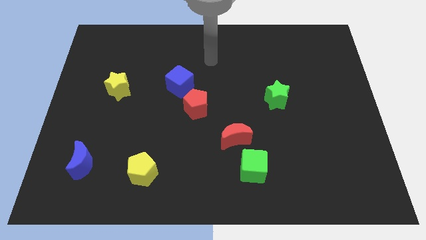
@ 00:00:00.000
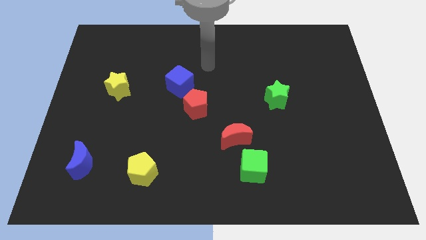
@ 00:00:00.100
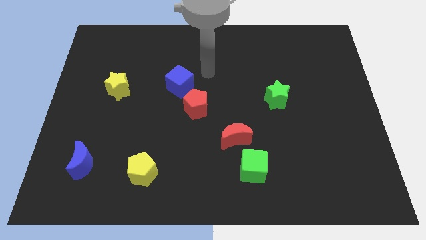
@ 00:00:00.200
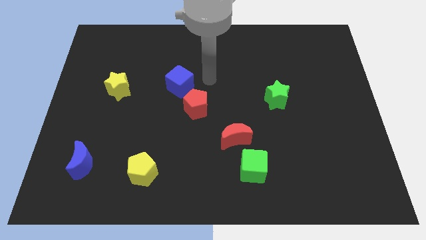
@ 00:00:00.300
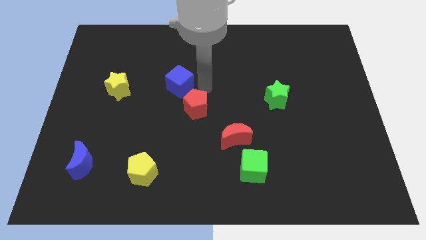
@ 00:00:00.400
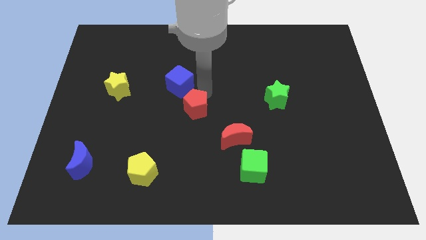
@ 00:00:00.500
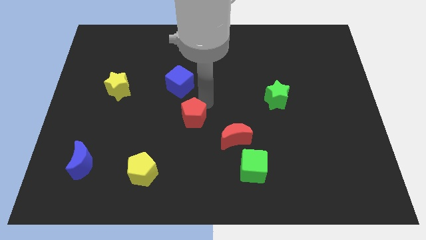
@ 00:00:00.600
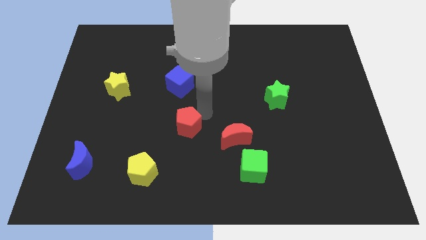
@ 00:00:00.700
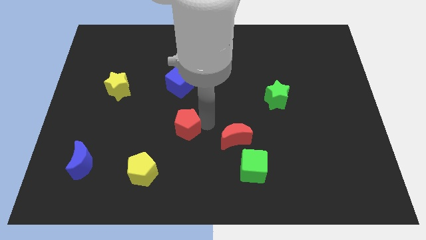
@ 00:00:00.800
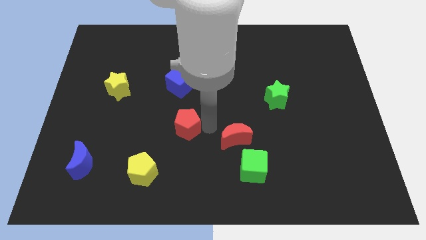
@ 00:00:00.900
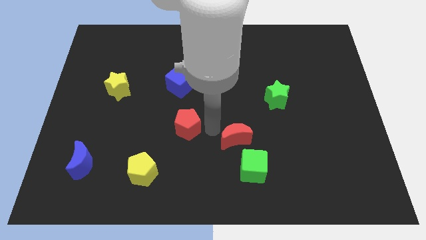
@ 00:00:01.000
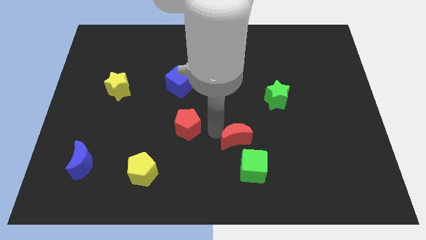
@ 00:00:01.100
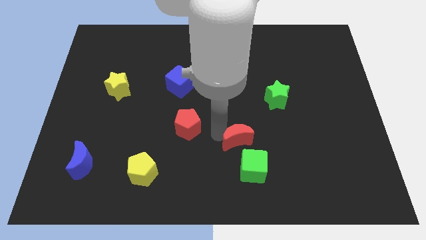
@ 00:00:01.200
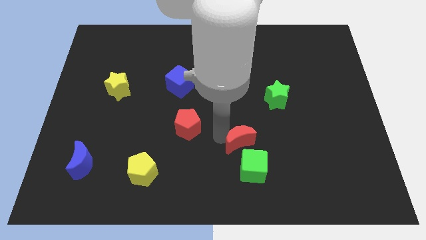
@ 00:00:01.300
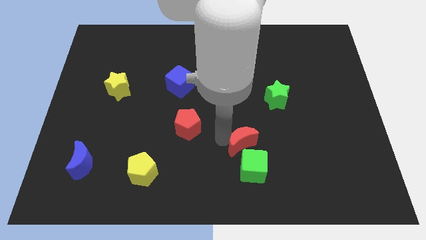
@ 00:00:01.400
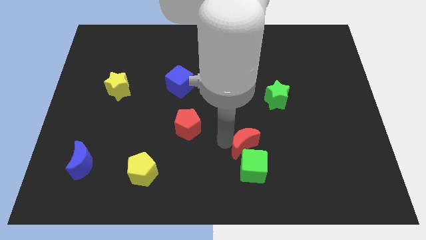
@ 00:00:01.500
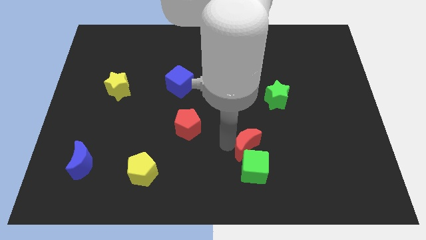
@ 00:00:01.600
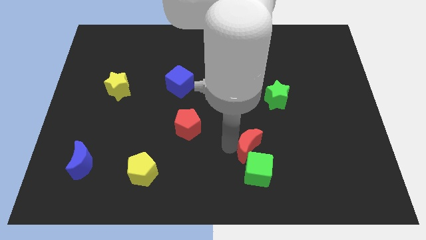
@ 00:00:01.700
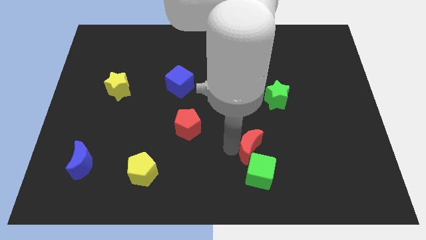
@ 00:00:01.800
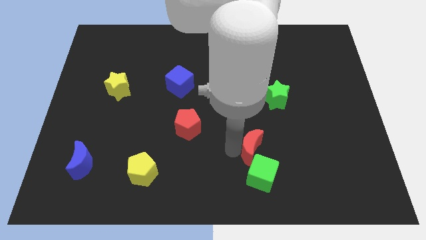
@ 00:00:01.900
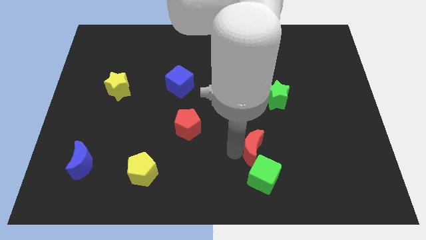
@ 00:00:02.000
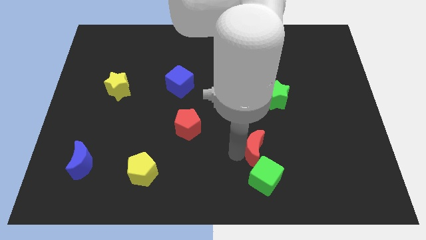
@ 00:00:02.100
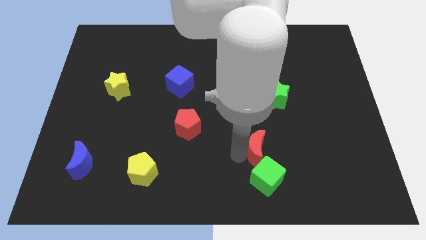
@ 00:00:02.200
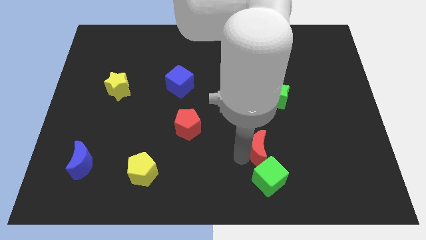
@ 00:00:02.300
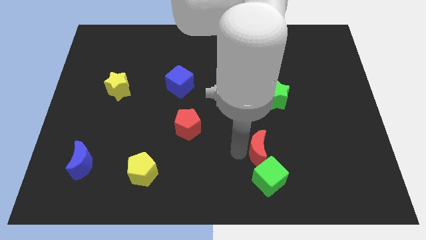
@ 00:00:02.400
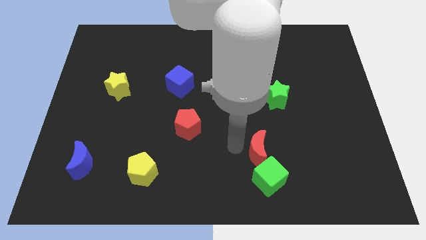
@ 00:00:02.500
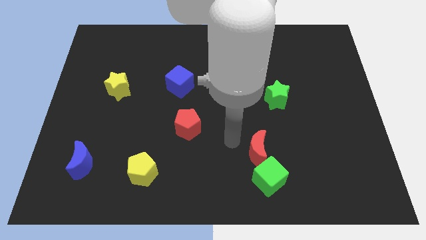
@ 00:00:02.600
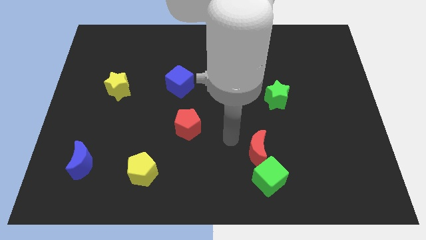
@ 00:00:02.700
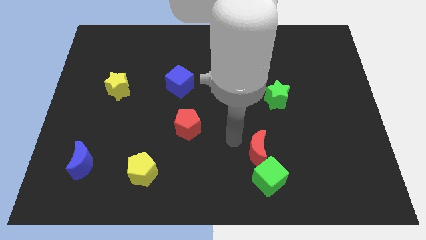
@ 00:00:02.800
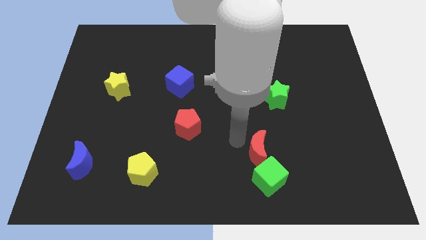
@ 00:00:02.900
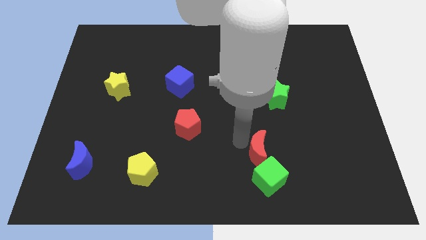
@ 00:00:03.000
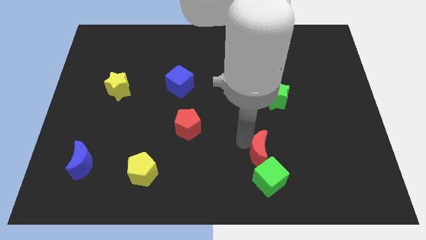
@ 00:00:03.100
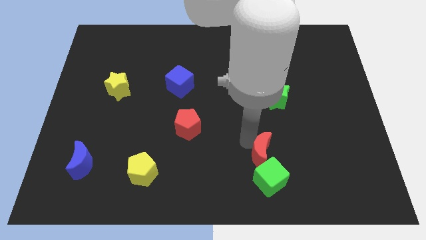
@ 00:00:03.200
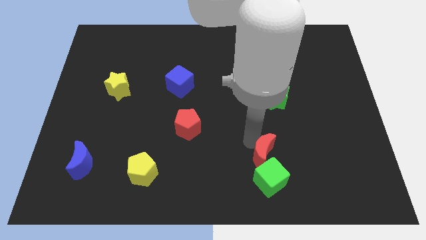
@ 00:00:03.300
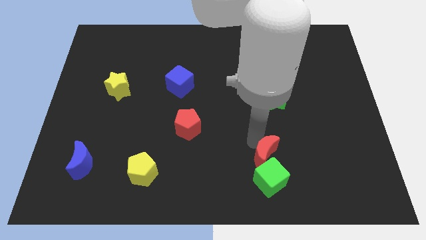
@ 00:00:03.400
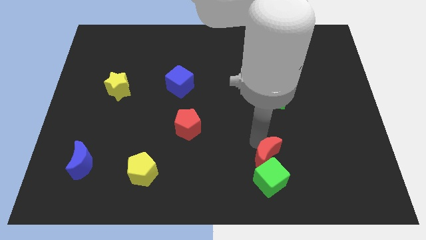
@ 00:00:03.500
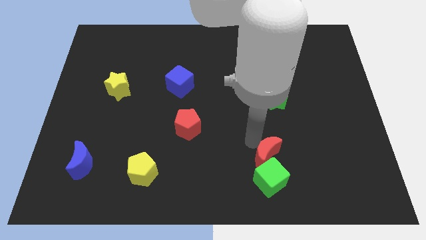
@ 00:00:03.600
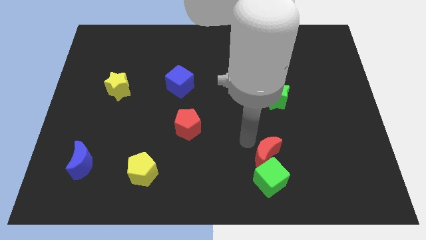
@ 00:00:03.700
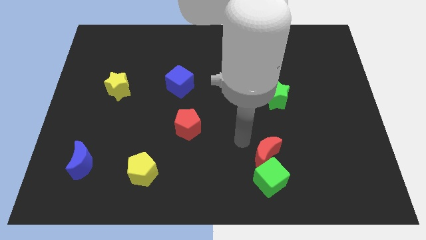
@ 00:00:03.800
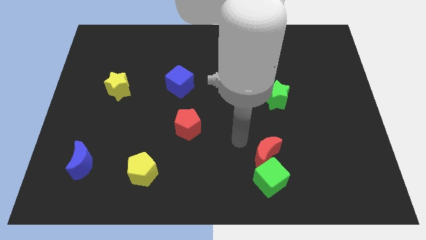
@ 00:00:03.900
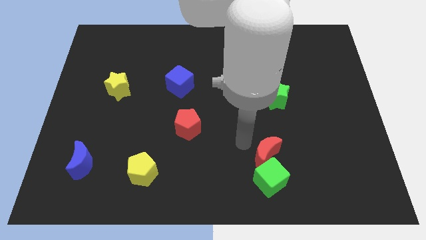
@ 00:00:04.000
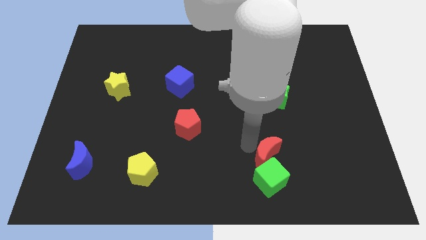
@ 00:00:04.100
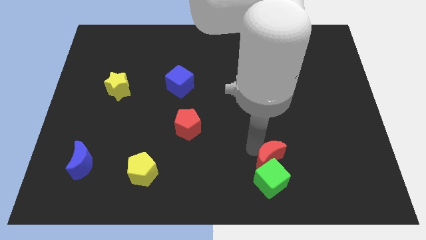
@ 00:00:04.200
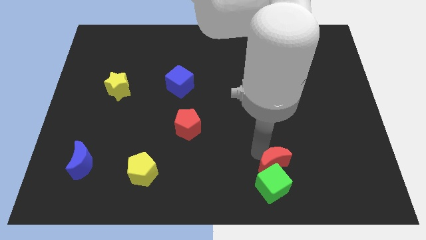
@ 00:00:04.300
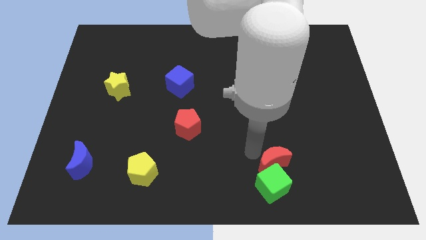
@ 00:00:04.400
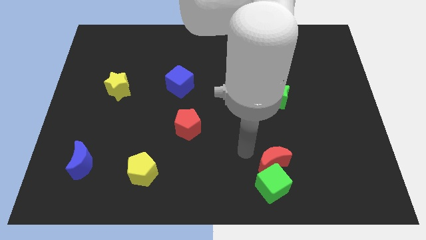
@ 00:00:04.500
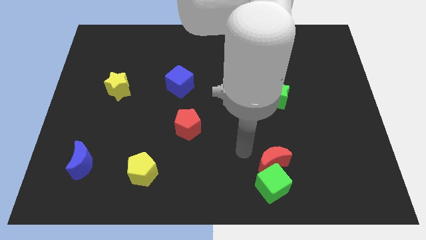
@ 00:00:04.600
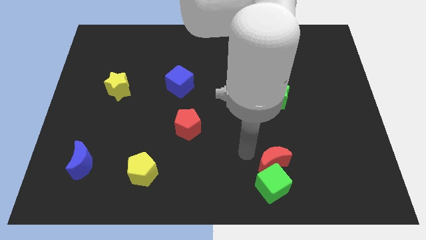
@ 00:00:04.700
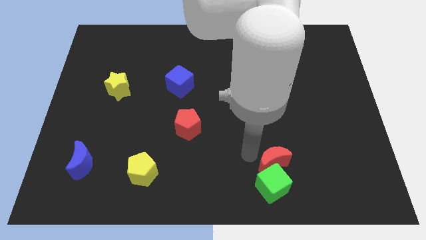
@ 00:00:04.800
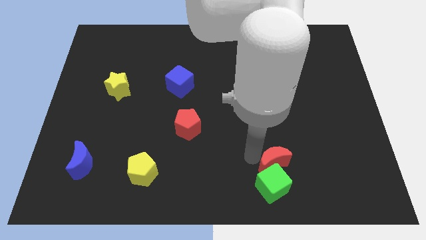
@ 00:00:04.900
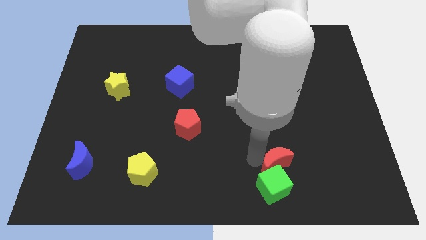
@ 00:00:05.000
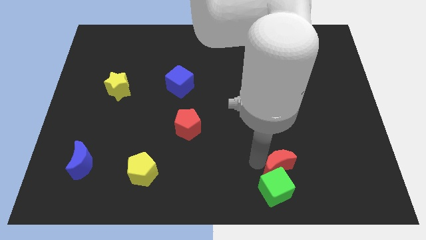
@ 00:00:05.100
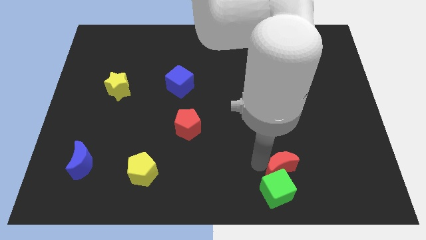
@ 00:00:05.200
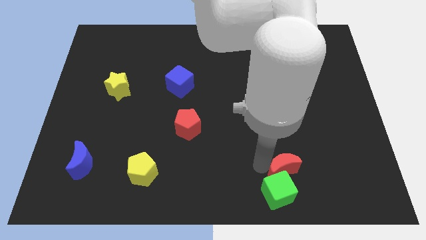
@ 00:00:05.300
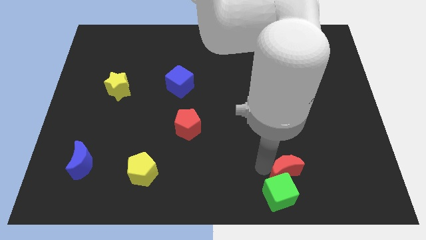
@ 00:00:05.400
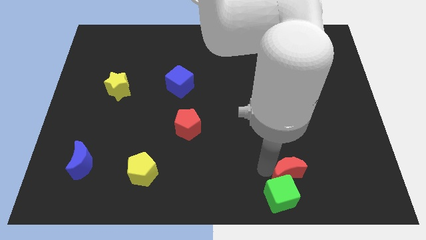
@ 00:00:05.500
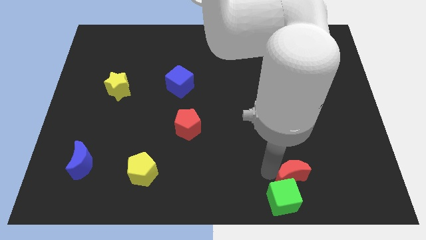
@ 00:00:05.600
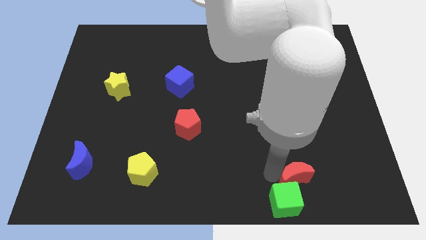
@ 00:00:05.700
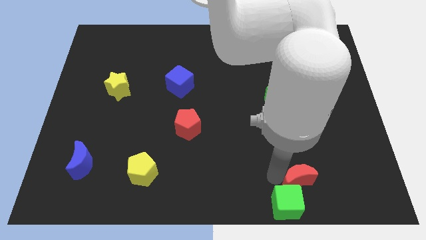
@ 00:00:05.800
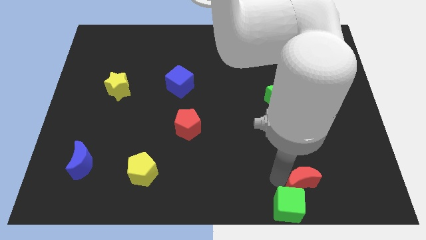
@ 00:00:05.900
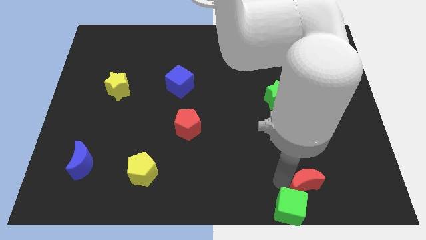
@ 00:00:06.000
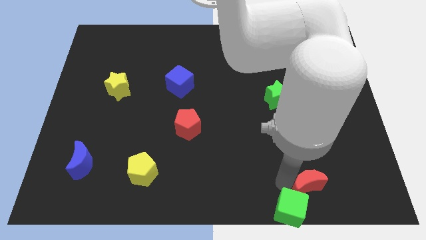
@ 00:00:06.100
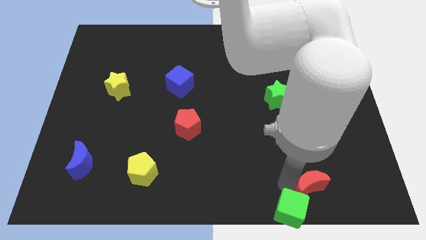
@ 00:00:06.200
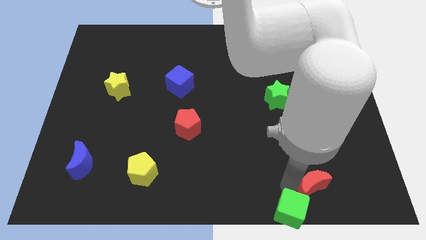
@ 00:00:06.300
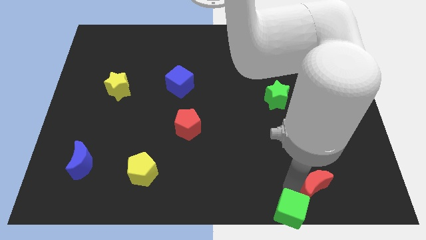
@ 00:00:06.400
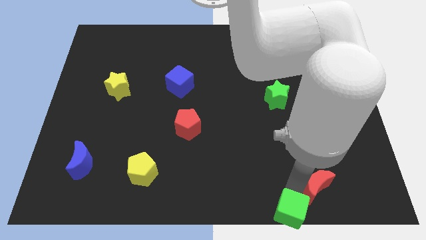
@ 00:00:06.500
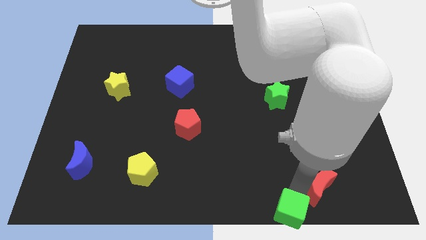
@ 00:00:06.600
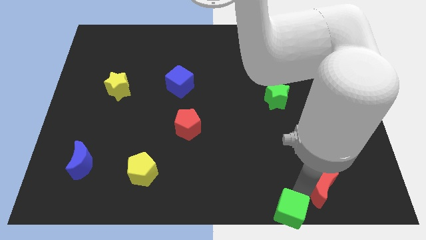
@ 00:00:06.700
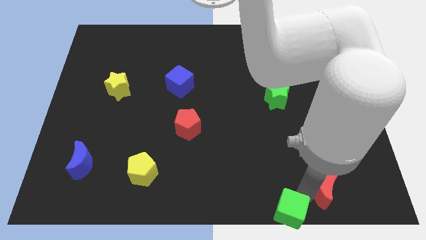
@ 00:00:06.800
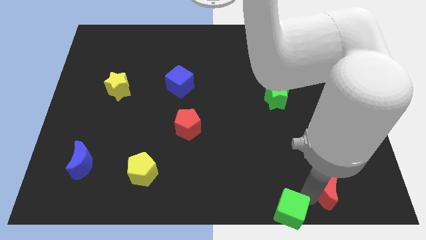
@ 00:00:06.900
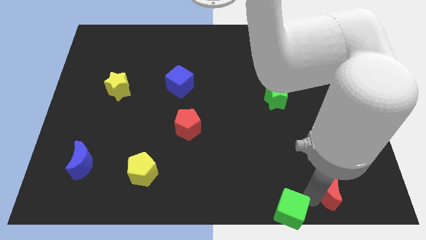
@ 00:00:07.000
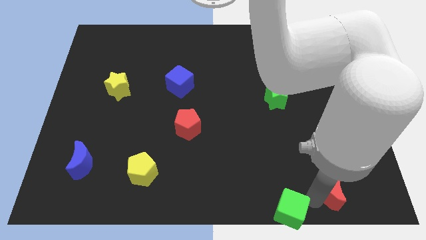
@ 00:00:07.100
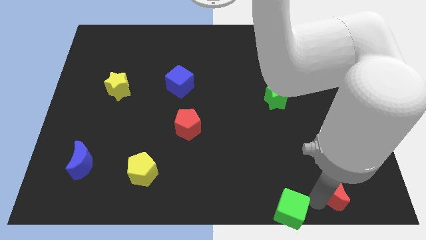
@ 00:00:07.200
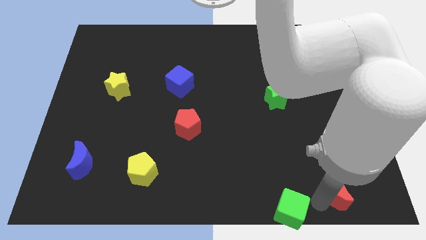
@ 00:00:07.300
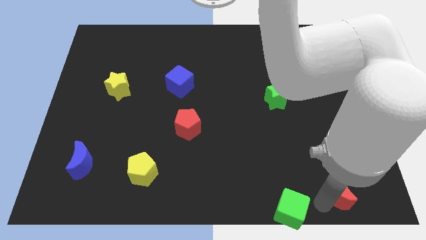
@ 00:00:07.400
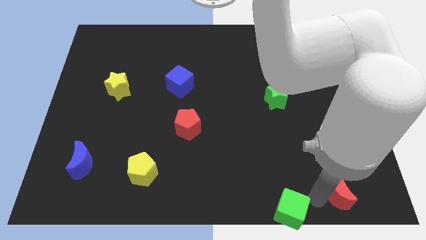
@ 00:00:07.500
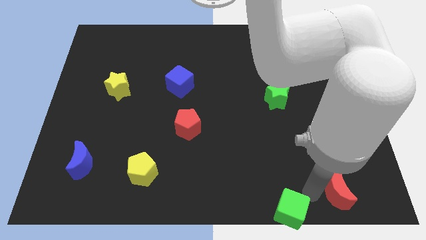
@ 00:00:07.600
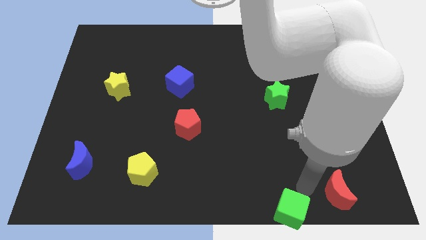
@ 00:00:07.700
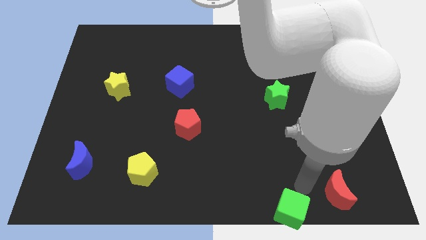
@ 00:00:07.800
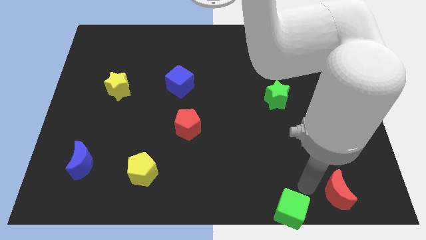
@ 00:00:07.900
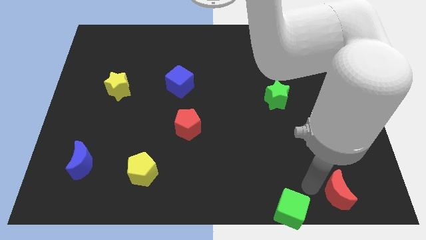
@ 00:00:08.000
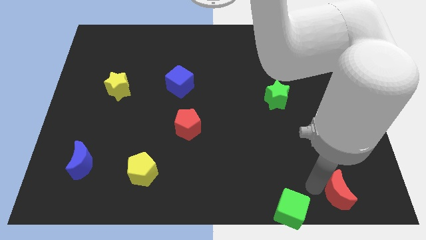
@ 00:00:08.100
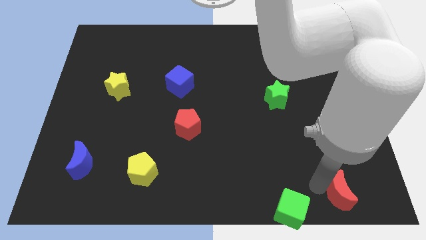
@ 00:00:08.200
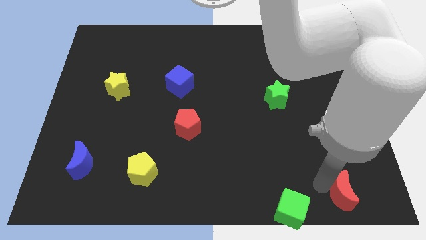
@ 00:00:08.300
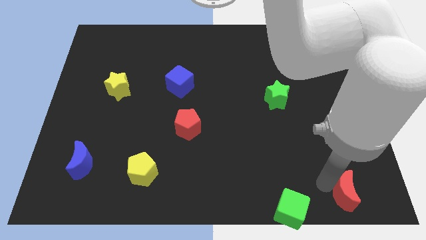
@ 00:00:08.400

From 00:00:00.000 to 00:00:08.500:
slide the red moon to the bottom right corner
